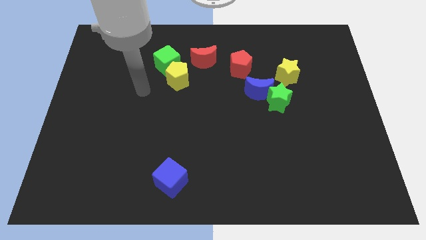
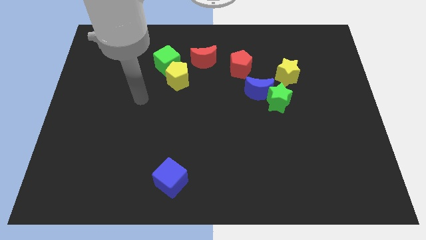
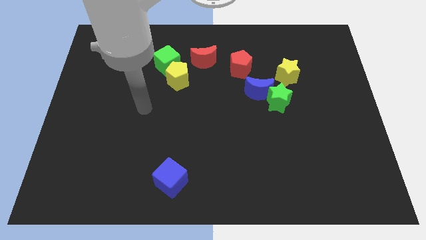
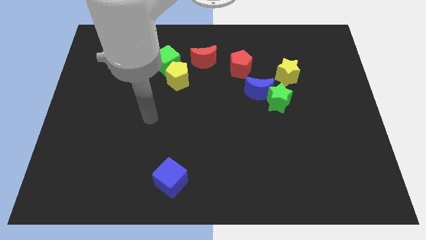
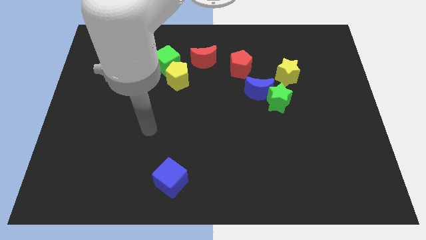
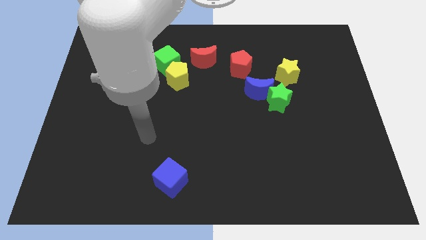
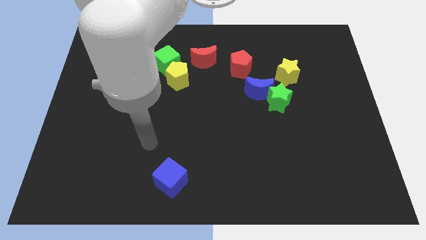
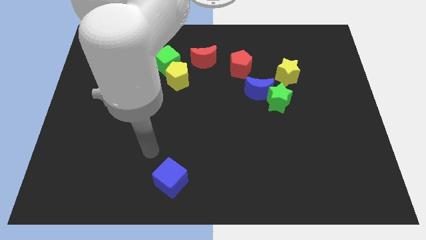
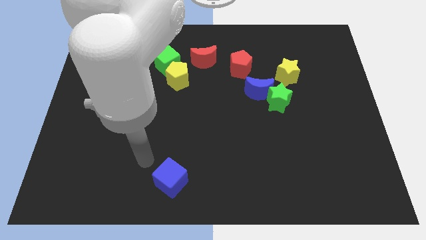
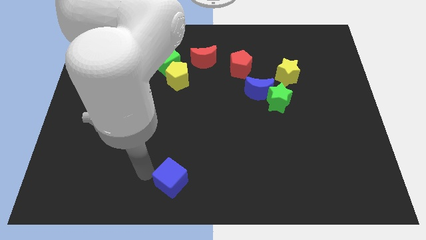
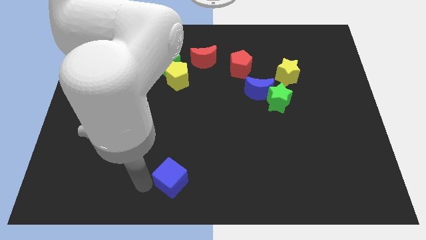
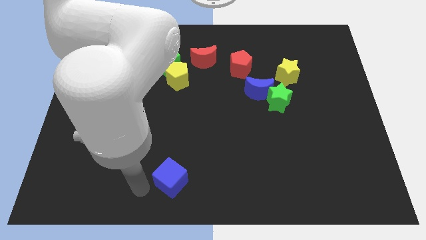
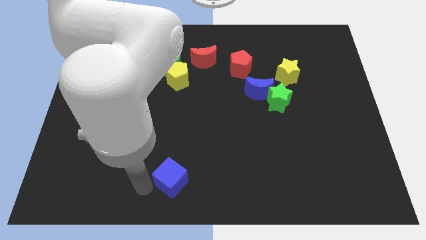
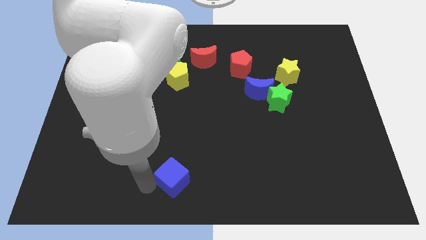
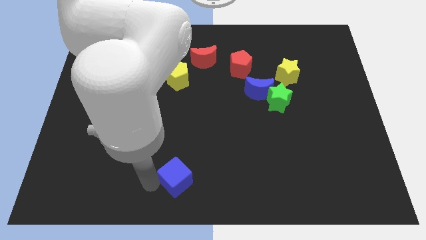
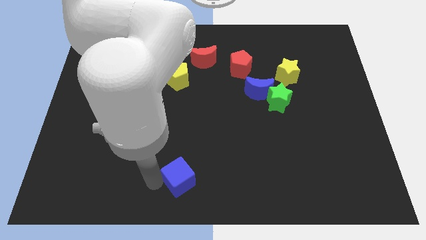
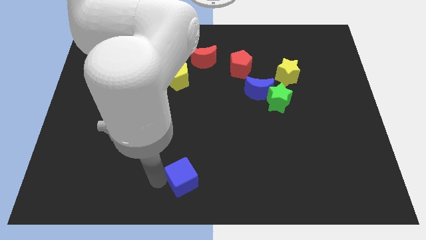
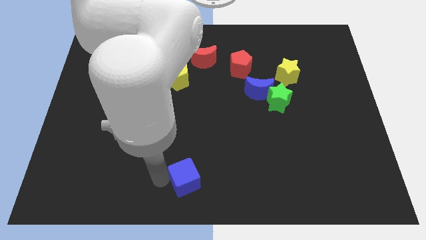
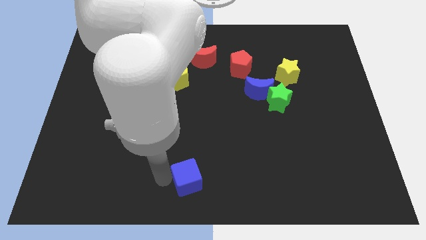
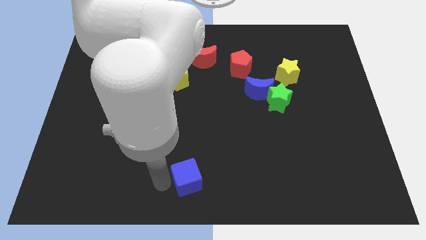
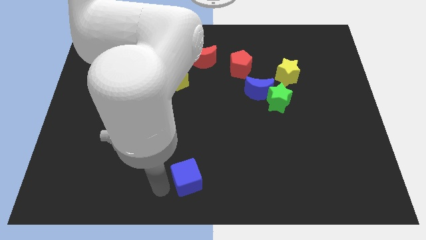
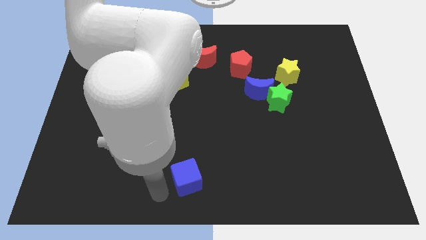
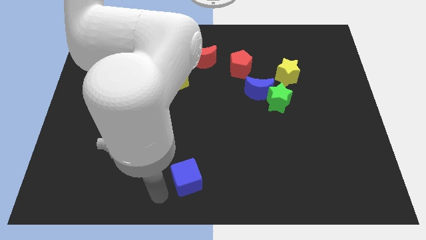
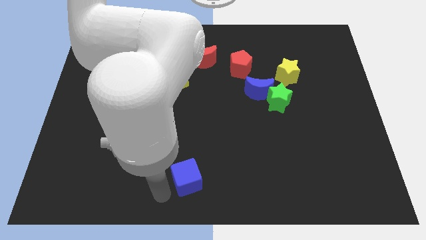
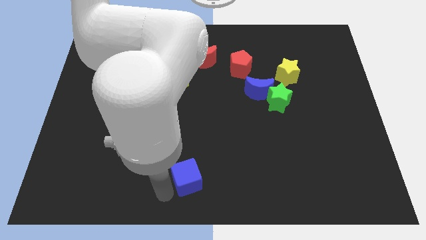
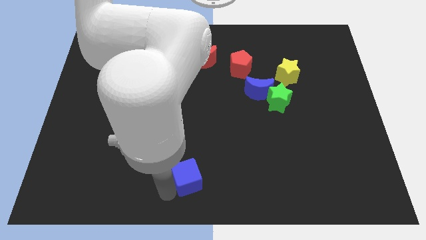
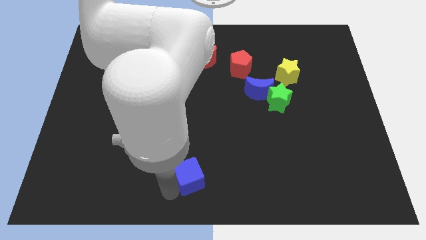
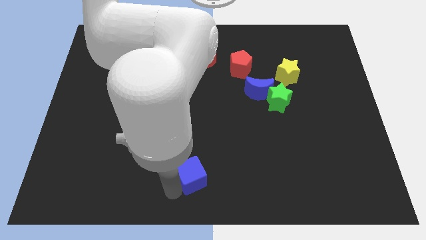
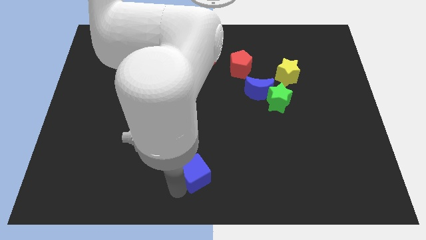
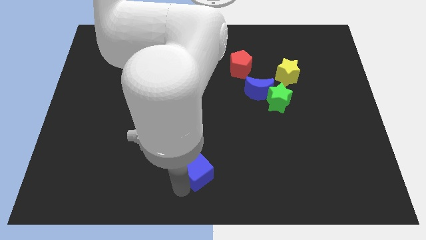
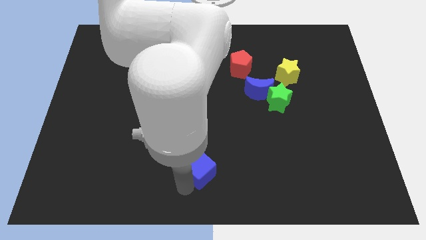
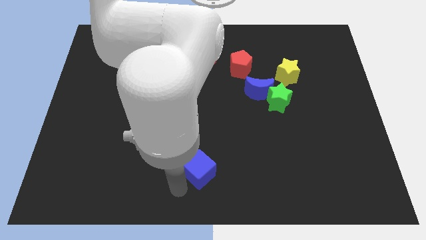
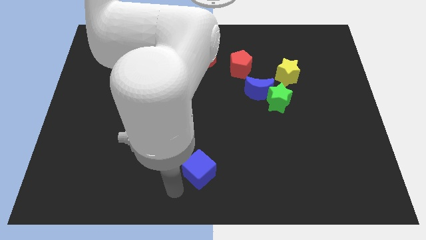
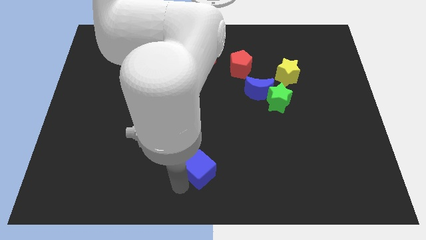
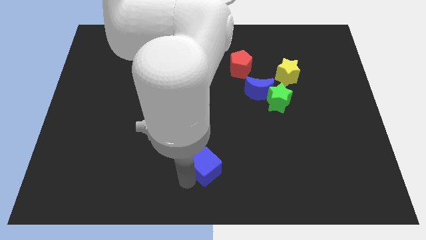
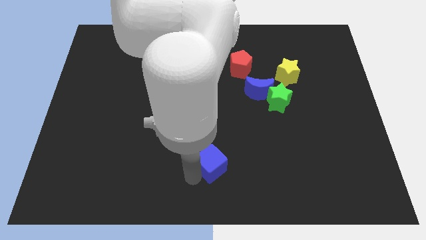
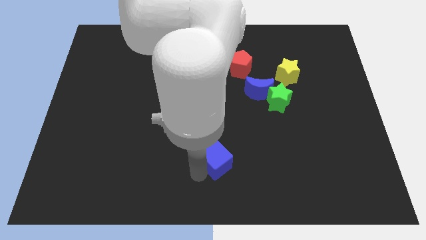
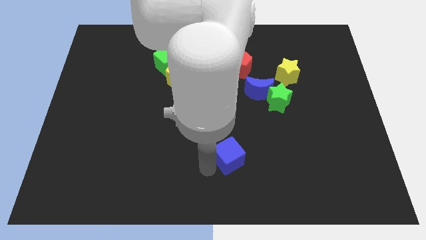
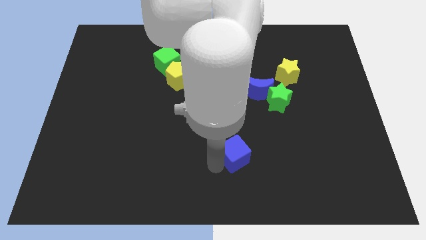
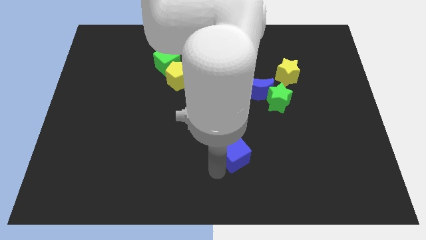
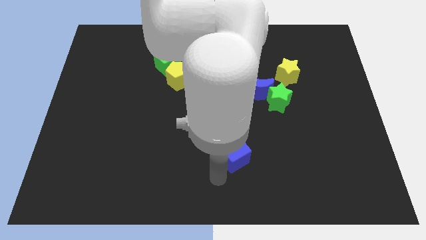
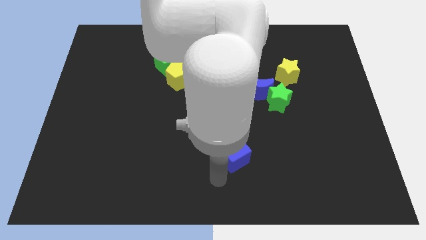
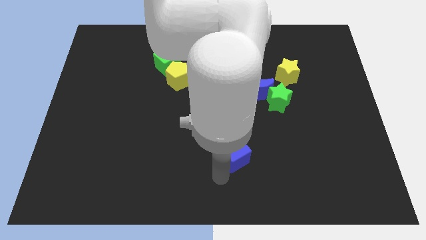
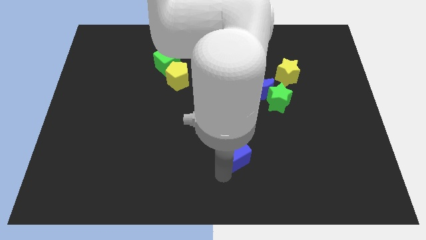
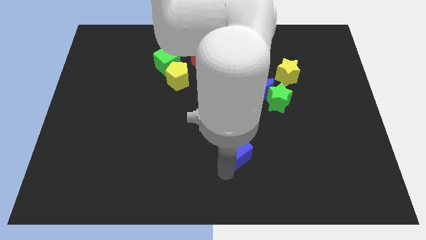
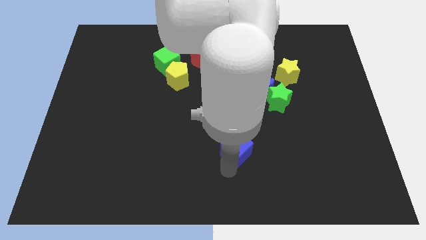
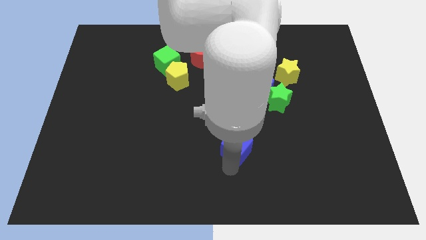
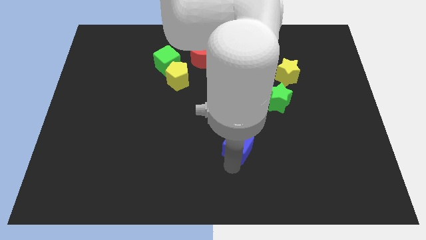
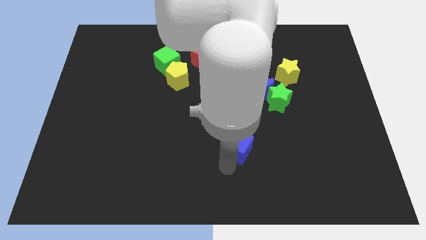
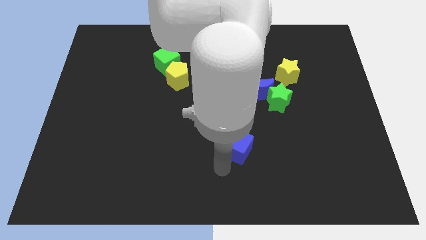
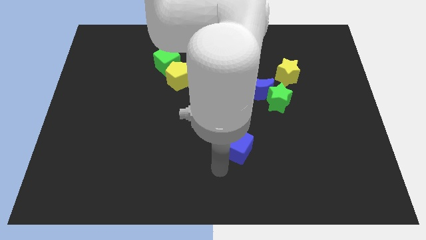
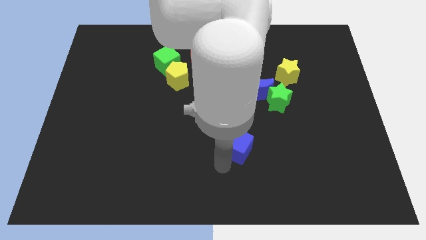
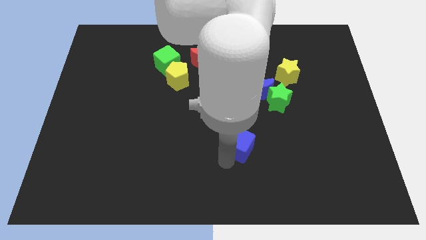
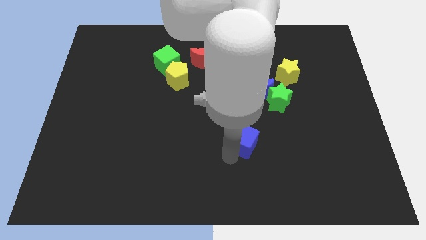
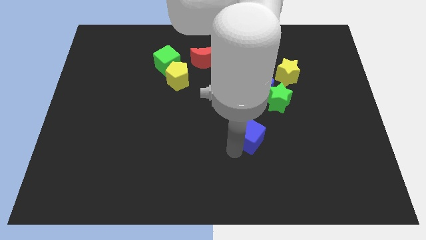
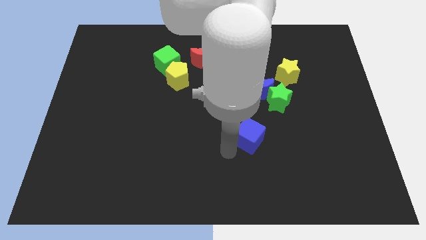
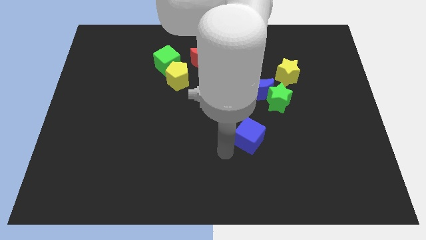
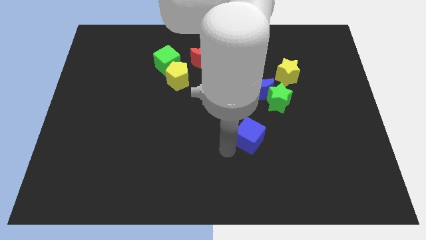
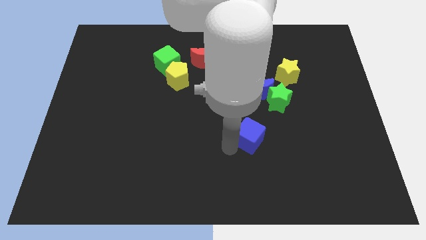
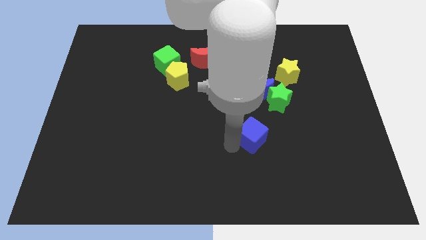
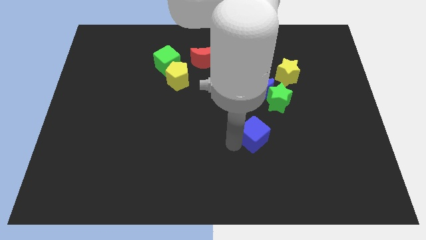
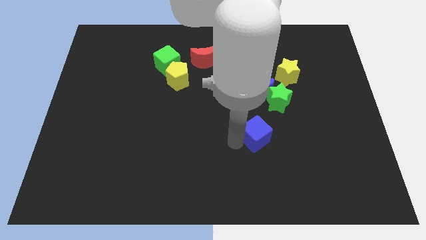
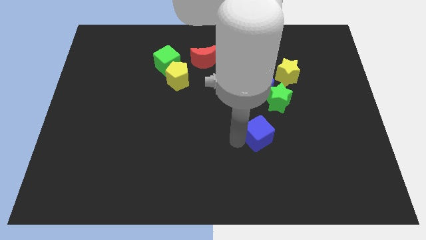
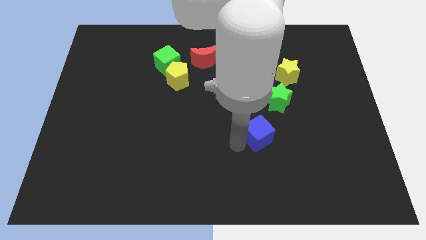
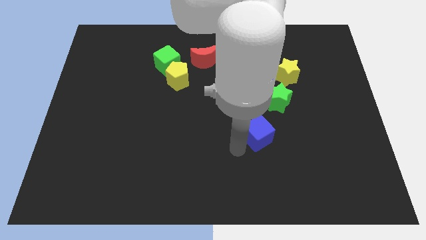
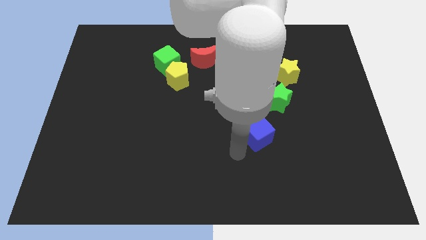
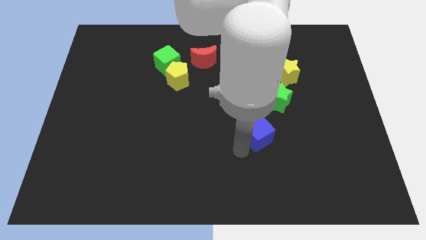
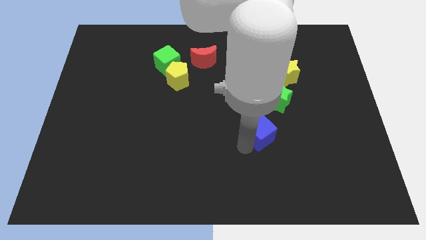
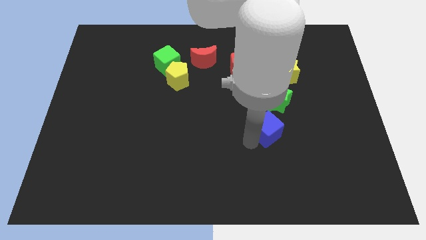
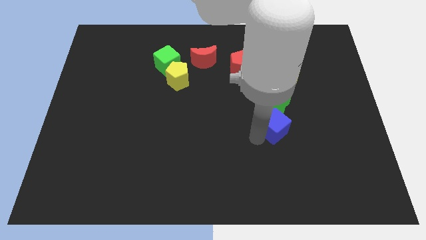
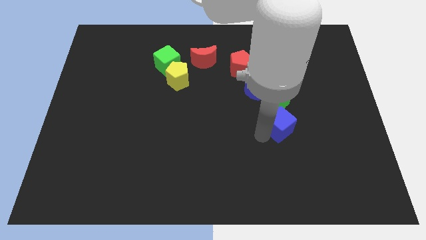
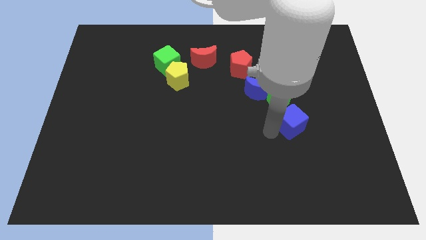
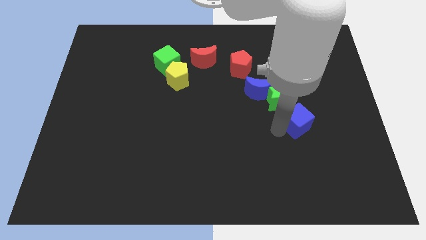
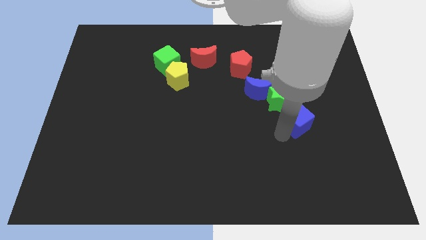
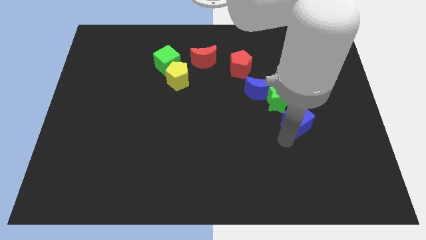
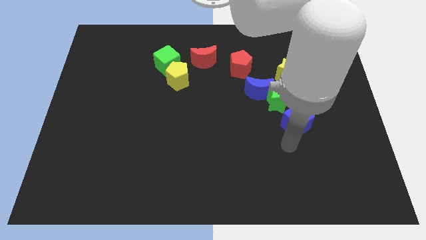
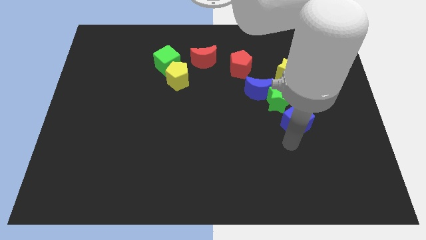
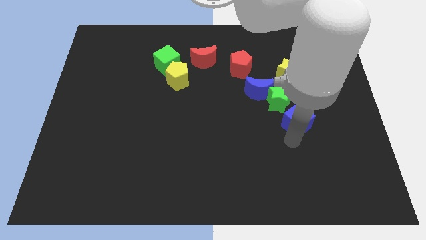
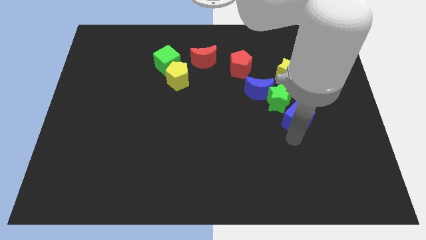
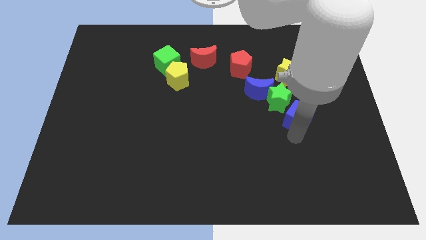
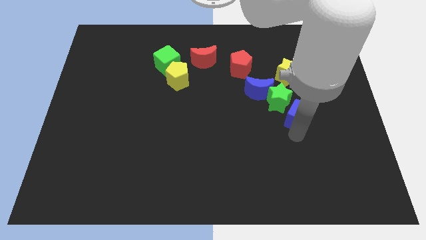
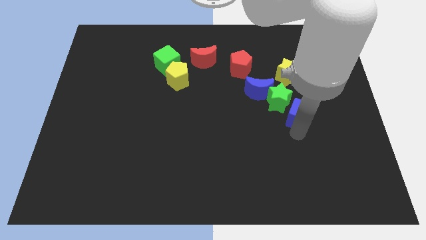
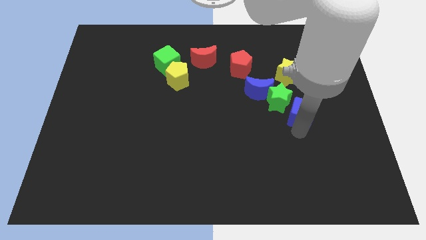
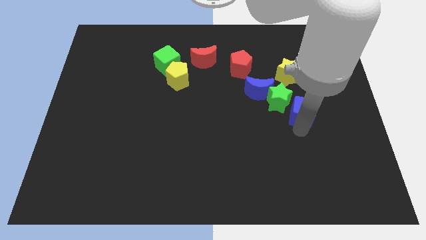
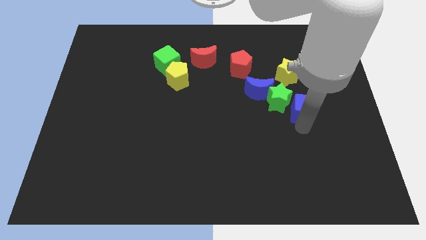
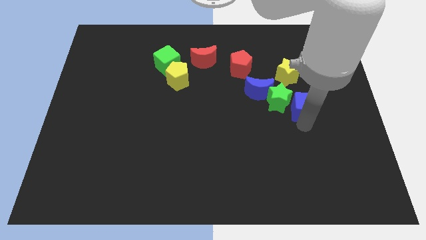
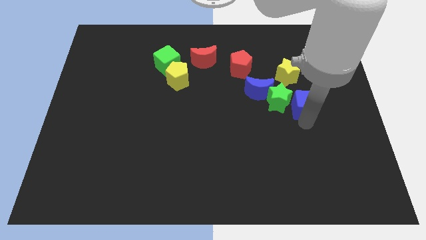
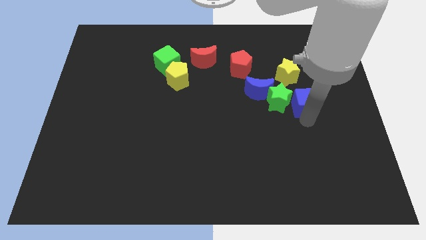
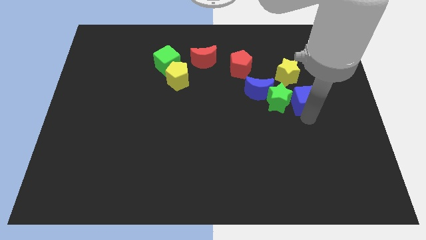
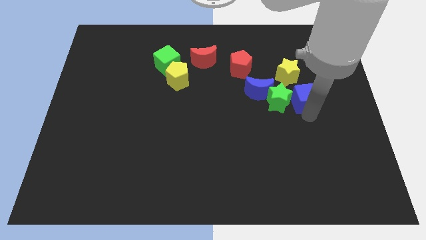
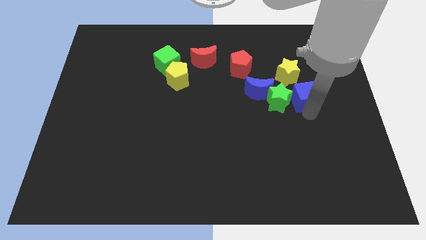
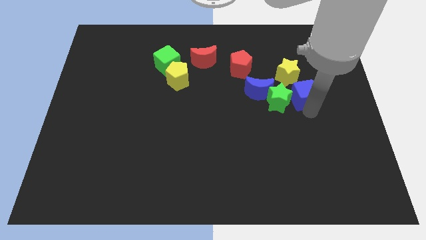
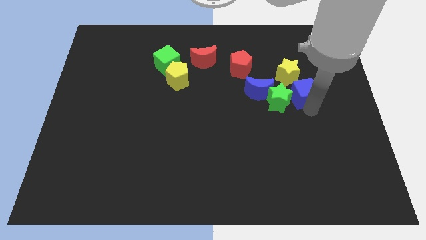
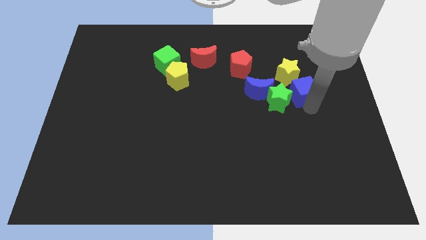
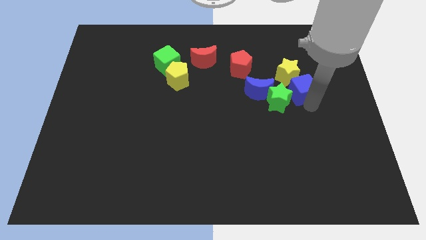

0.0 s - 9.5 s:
push the blue cube close to the yellow star
